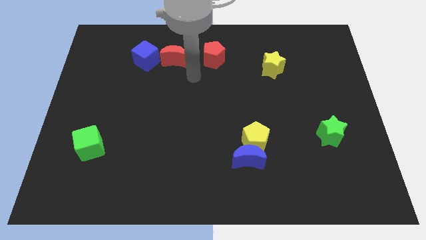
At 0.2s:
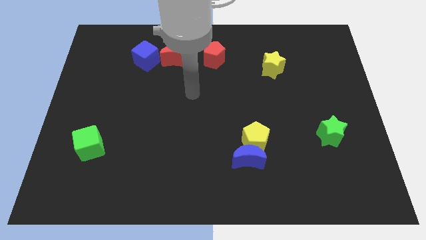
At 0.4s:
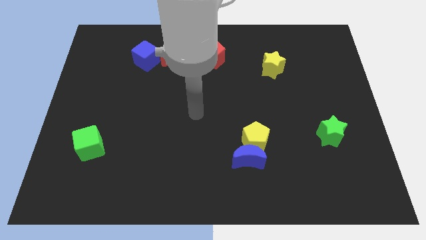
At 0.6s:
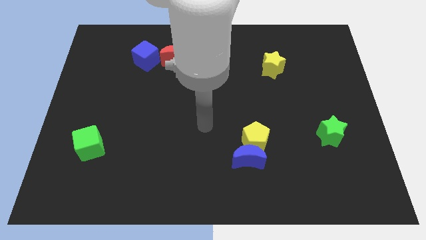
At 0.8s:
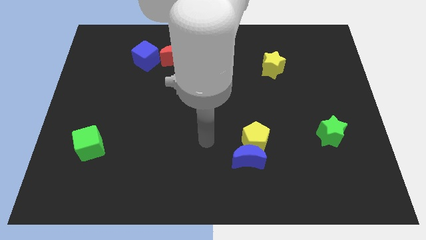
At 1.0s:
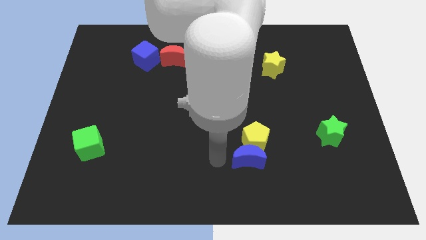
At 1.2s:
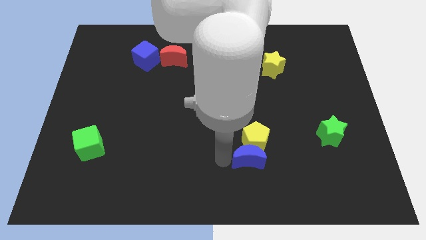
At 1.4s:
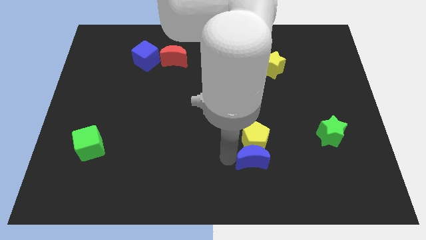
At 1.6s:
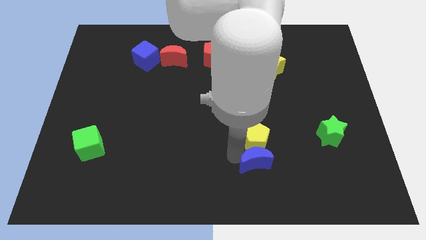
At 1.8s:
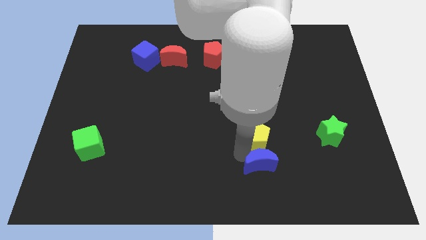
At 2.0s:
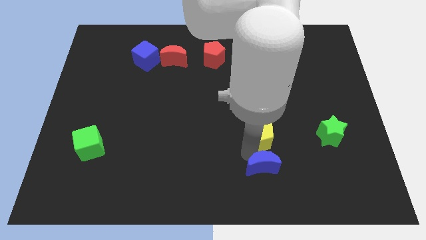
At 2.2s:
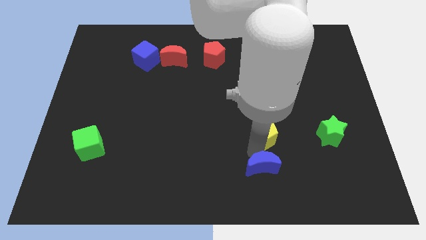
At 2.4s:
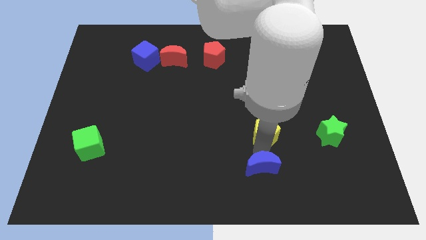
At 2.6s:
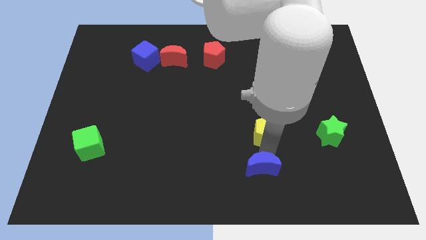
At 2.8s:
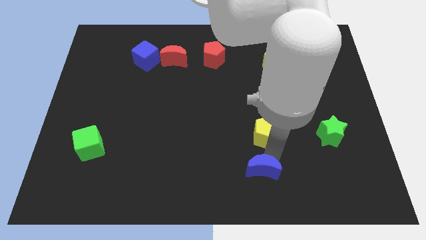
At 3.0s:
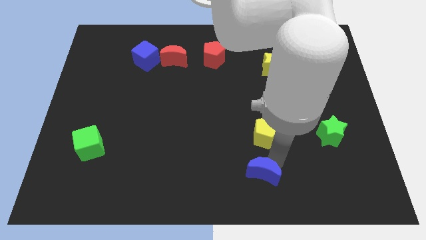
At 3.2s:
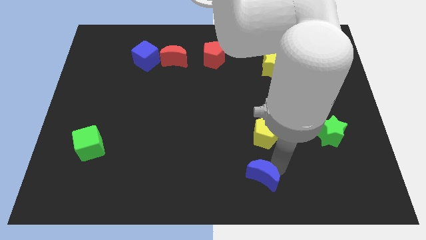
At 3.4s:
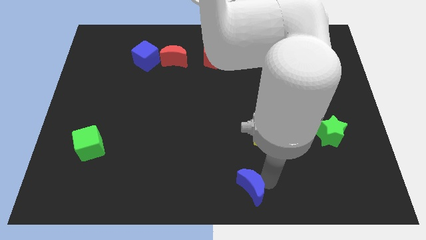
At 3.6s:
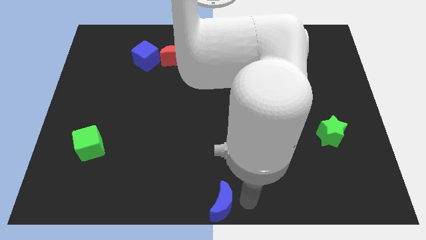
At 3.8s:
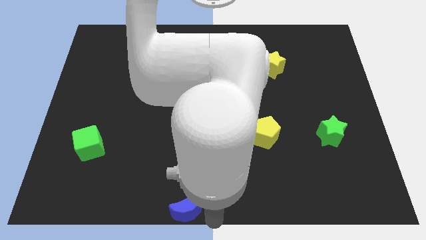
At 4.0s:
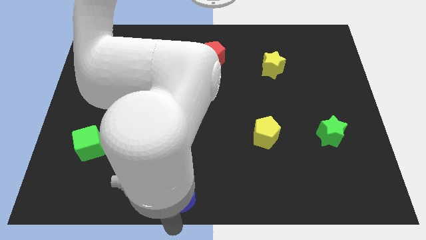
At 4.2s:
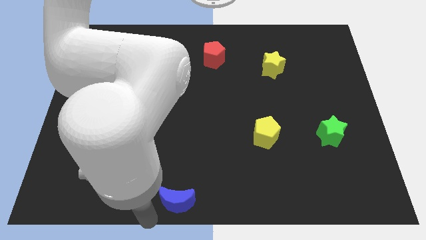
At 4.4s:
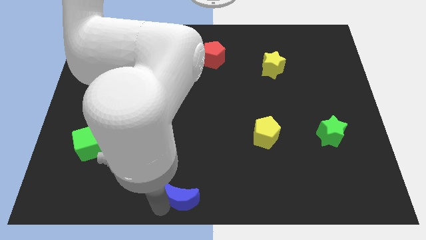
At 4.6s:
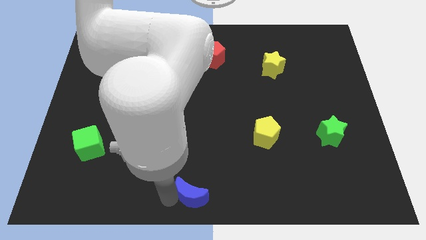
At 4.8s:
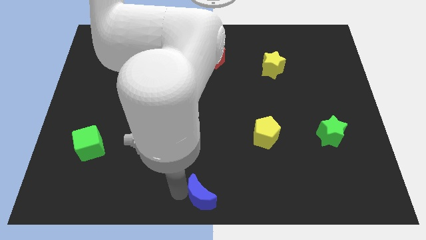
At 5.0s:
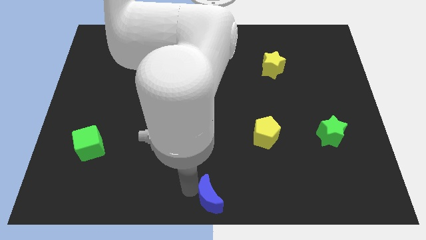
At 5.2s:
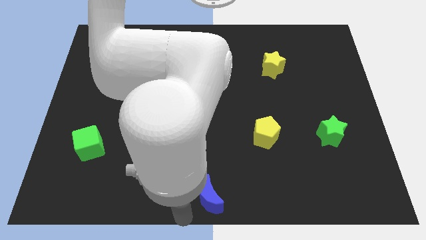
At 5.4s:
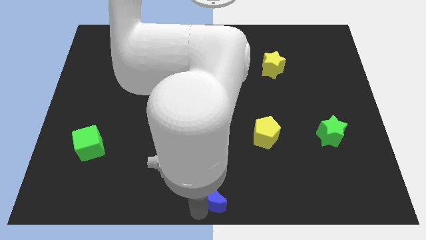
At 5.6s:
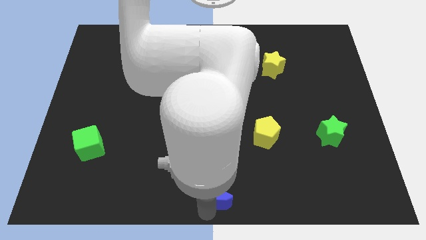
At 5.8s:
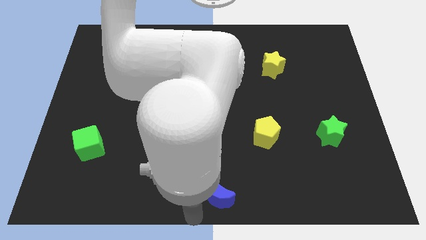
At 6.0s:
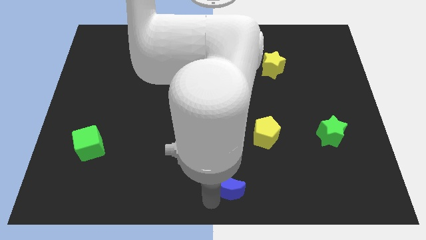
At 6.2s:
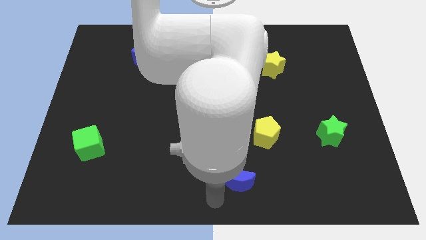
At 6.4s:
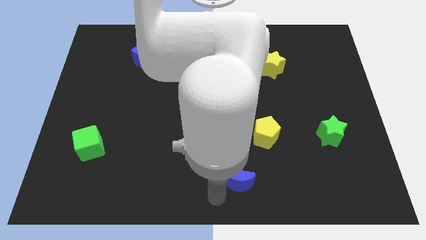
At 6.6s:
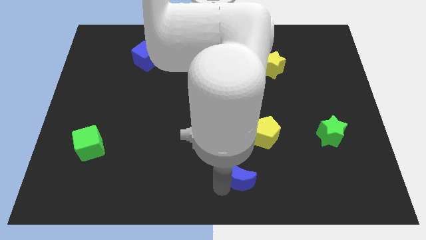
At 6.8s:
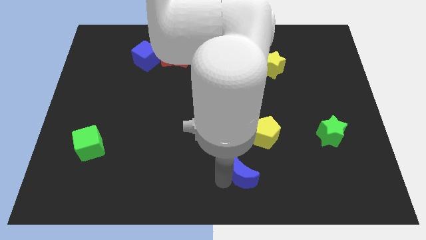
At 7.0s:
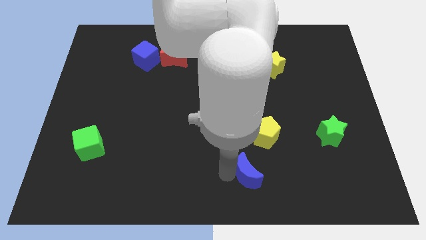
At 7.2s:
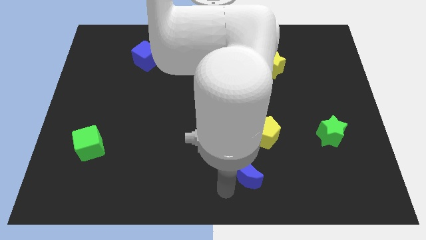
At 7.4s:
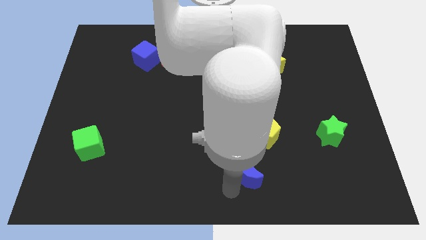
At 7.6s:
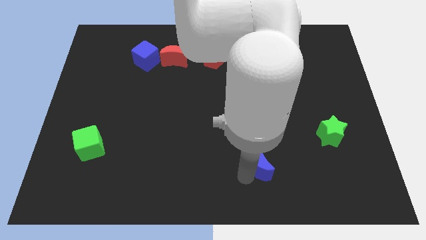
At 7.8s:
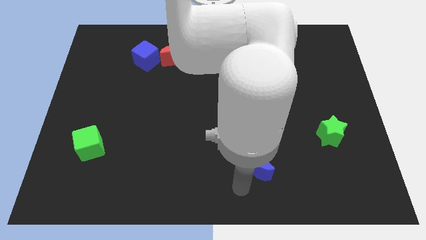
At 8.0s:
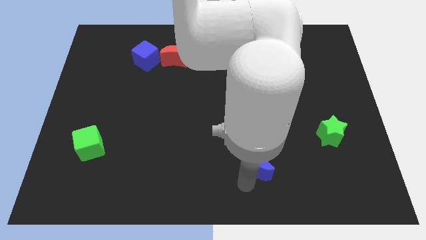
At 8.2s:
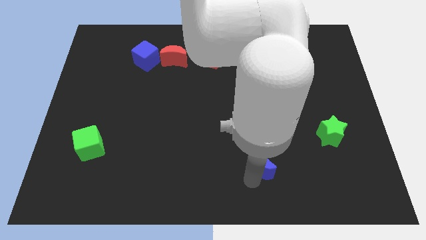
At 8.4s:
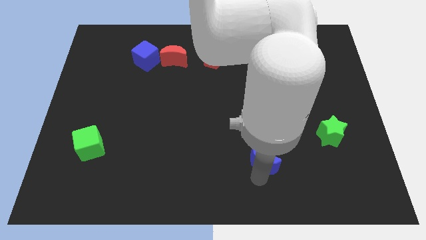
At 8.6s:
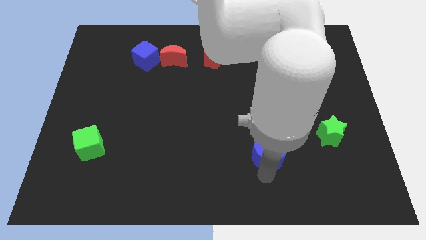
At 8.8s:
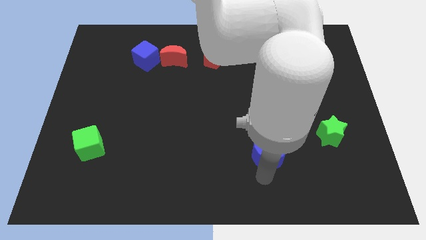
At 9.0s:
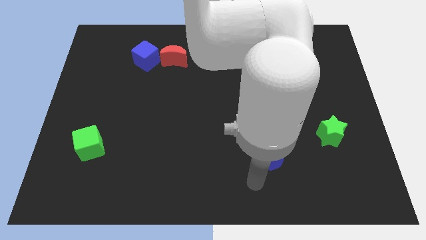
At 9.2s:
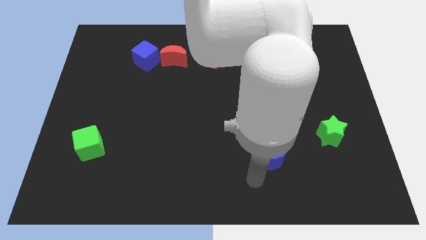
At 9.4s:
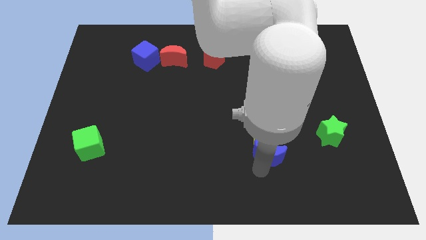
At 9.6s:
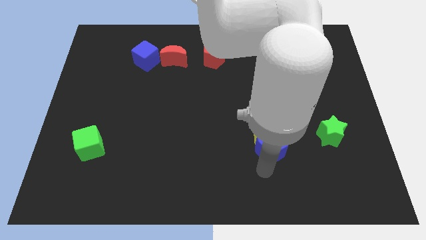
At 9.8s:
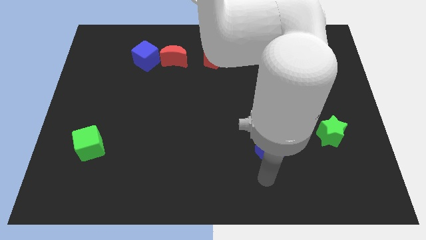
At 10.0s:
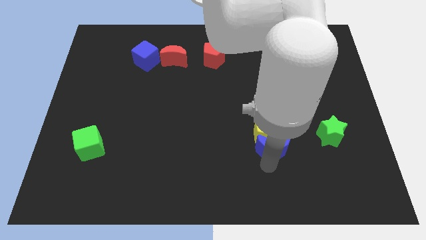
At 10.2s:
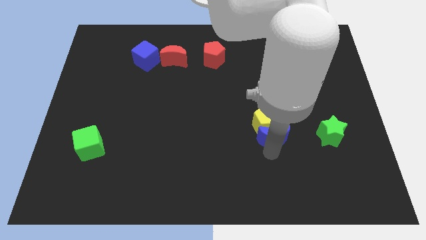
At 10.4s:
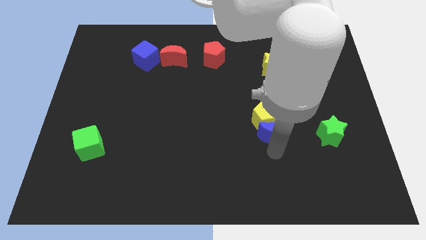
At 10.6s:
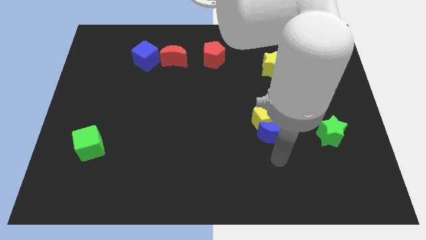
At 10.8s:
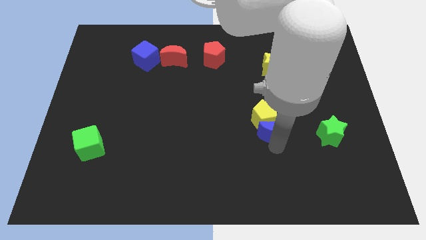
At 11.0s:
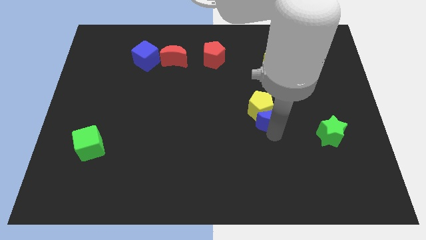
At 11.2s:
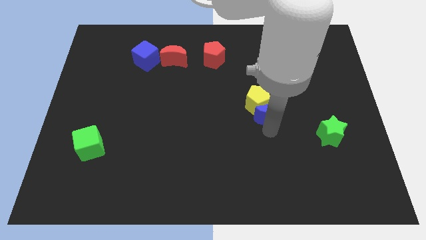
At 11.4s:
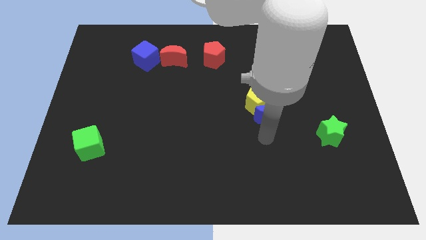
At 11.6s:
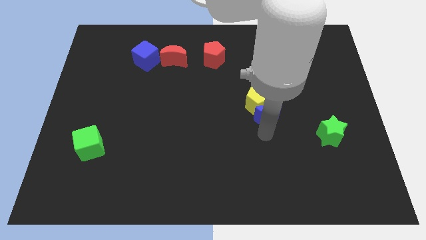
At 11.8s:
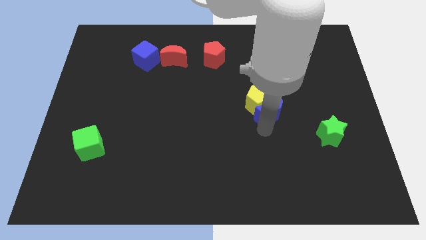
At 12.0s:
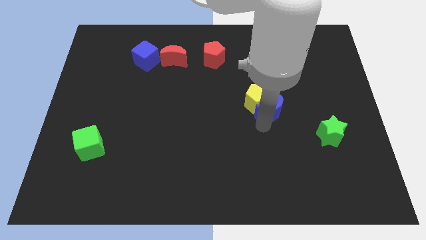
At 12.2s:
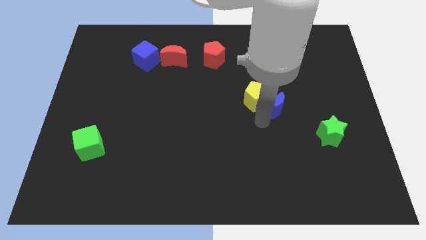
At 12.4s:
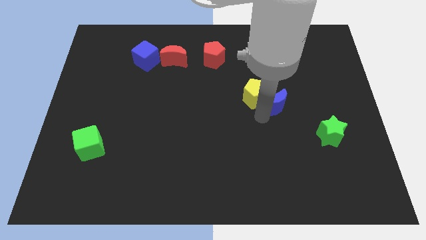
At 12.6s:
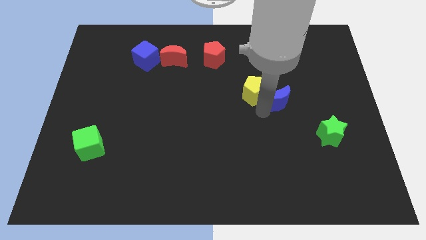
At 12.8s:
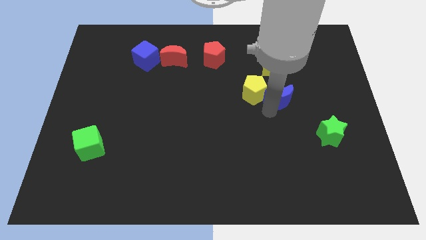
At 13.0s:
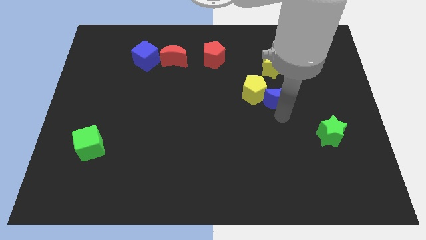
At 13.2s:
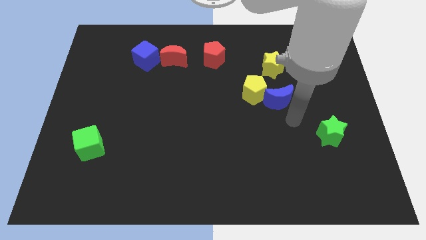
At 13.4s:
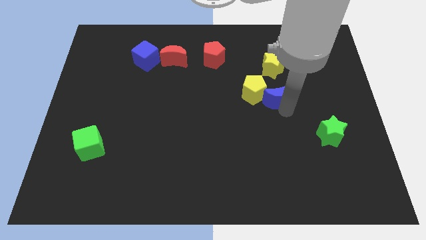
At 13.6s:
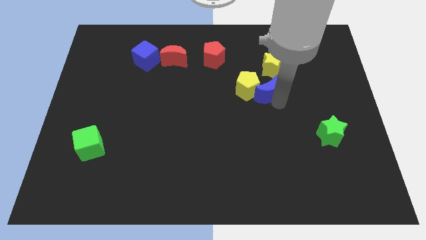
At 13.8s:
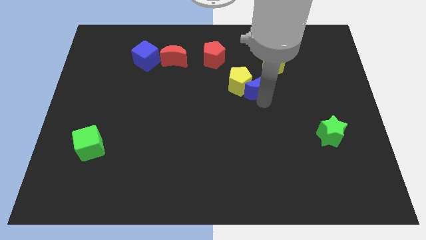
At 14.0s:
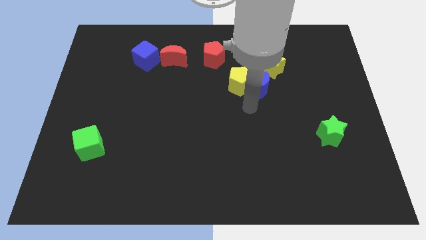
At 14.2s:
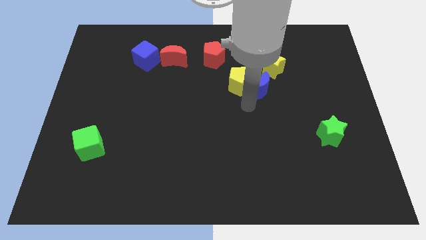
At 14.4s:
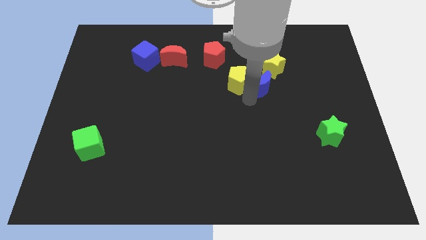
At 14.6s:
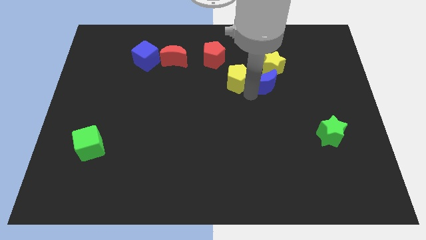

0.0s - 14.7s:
push the blue moon next to the yellow star

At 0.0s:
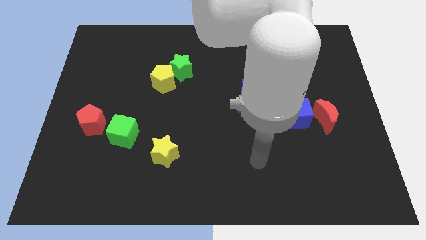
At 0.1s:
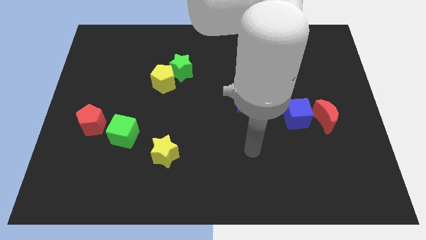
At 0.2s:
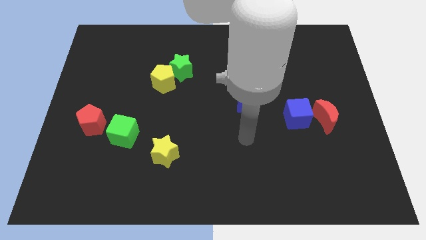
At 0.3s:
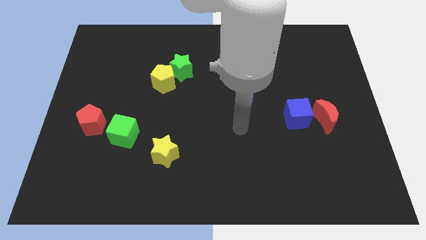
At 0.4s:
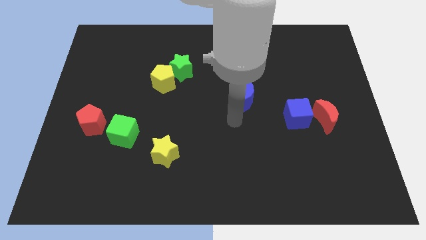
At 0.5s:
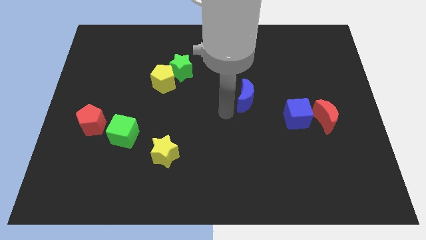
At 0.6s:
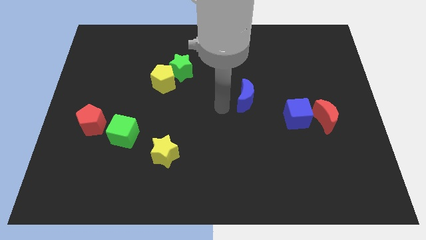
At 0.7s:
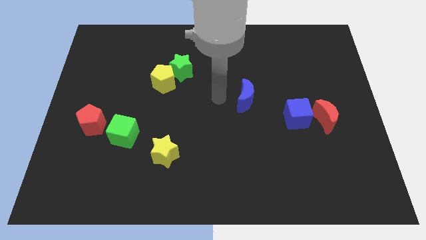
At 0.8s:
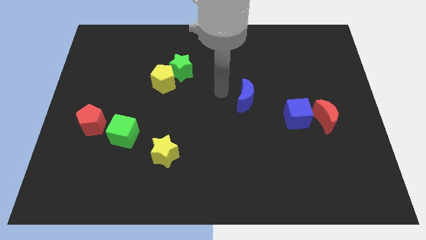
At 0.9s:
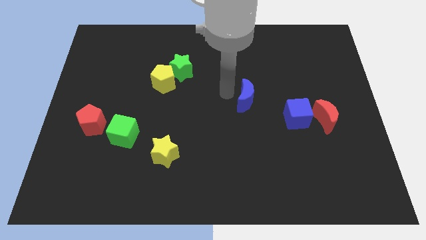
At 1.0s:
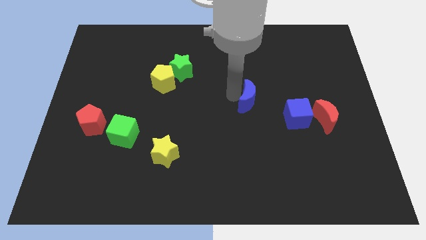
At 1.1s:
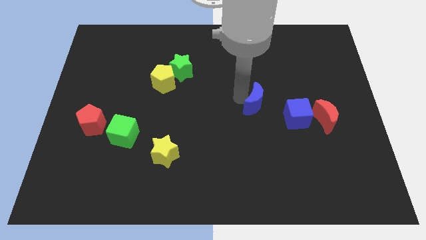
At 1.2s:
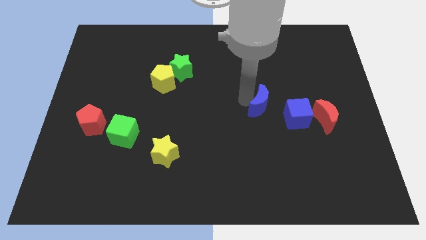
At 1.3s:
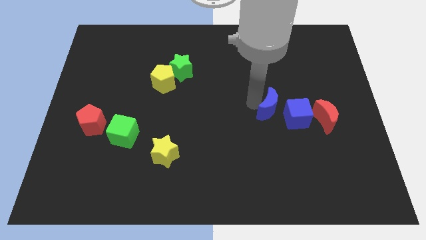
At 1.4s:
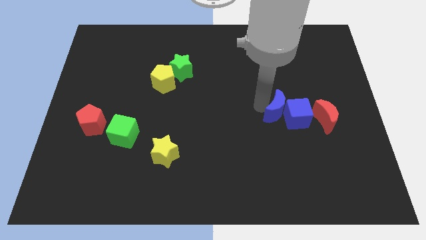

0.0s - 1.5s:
slide the blue moon next to the blue cube
